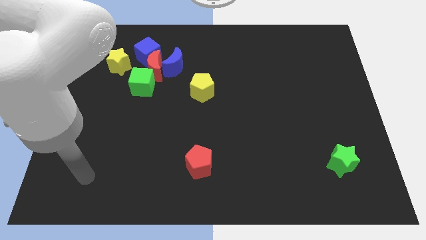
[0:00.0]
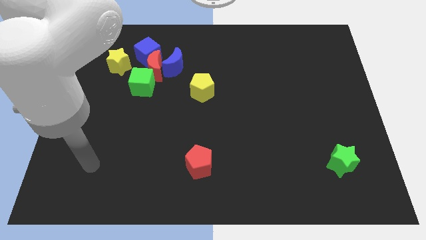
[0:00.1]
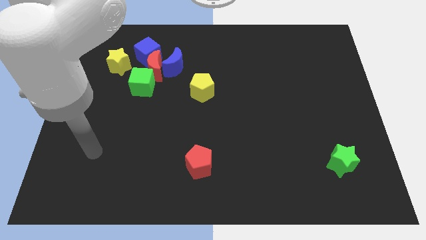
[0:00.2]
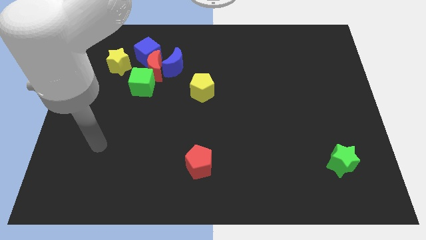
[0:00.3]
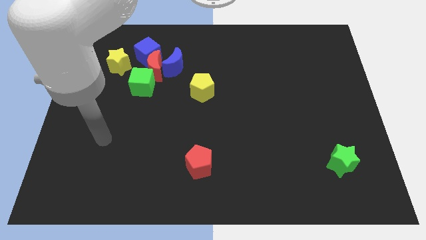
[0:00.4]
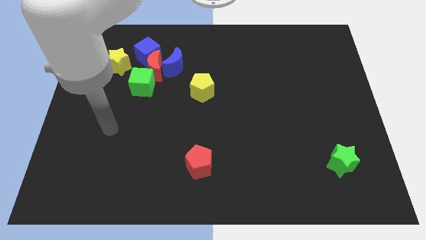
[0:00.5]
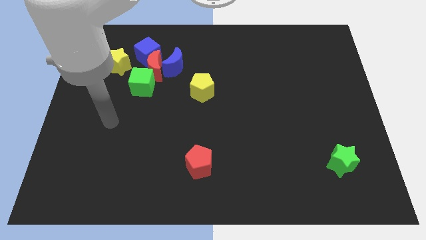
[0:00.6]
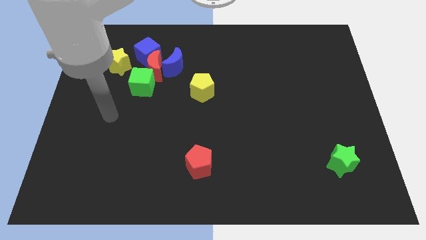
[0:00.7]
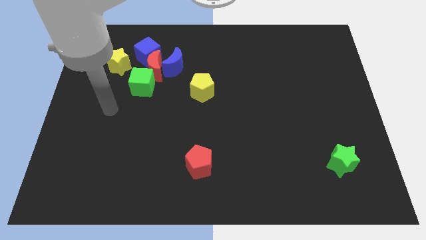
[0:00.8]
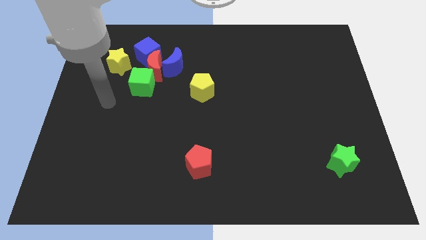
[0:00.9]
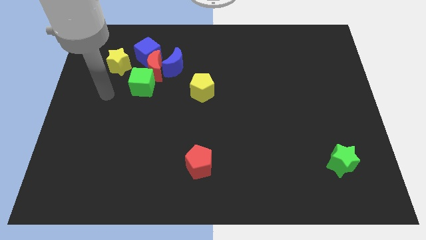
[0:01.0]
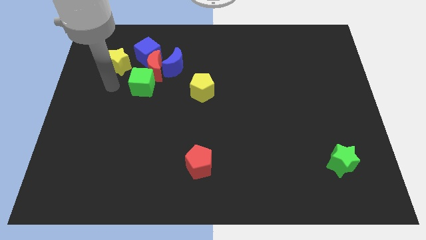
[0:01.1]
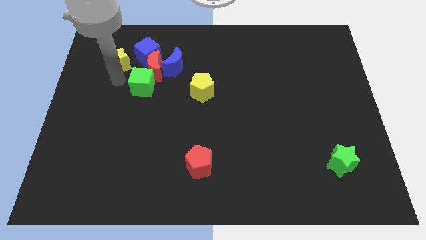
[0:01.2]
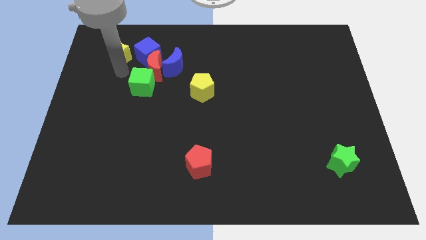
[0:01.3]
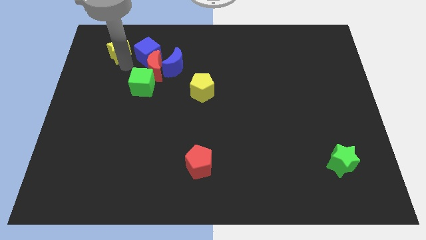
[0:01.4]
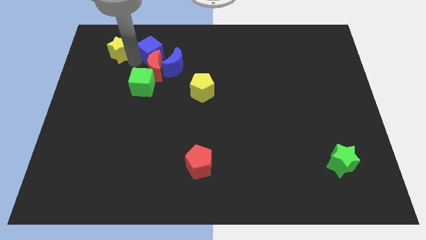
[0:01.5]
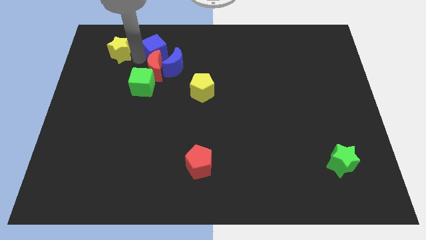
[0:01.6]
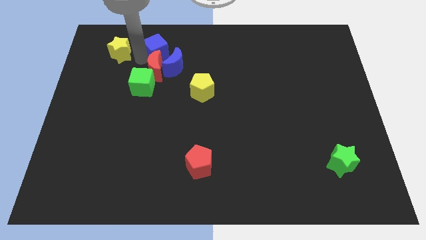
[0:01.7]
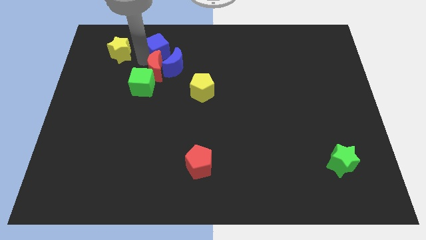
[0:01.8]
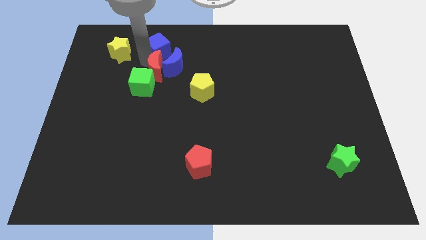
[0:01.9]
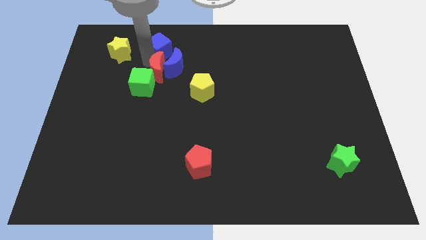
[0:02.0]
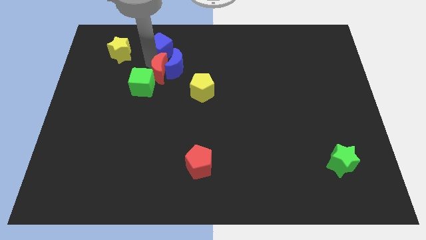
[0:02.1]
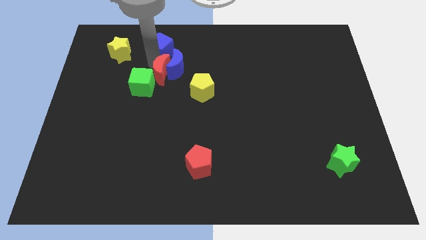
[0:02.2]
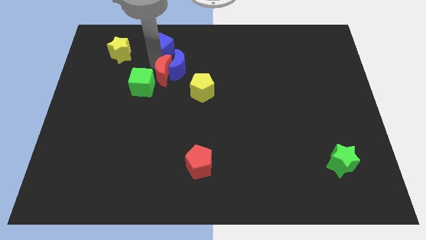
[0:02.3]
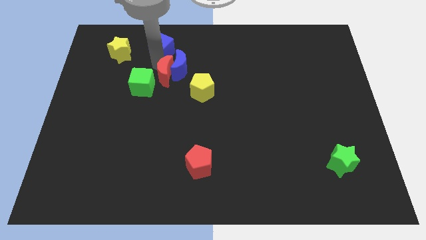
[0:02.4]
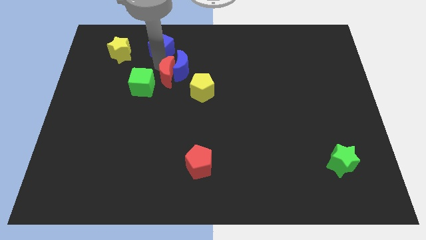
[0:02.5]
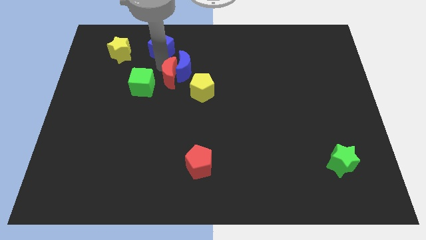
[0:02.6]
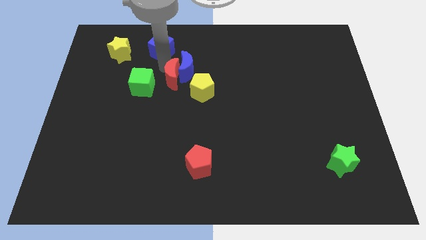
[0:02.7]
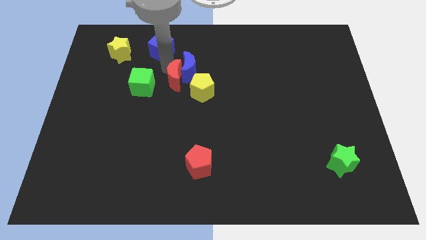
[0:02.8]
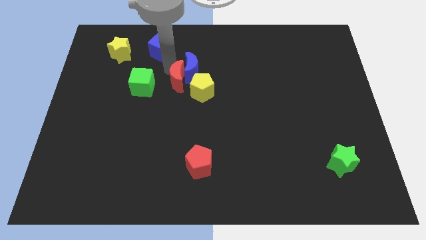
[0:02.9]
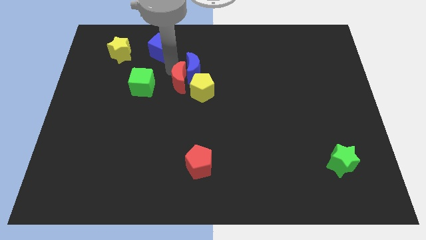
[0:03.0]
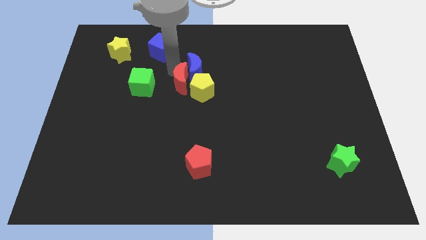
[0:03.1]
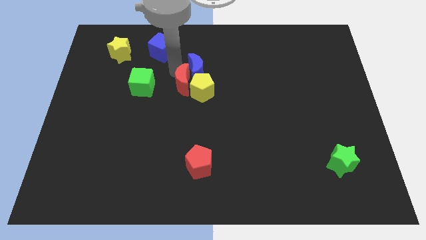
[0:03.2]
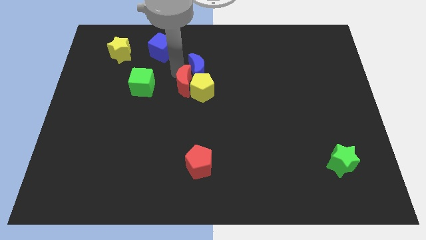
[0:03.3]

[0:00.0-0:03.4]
move the red moon away from the clump

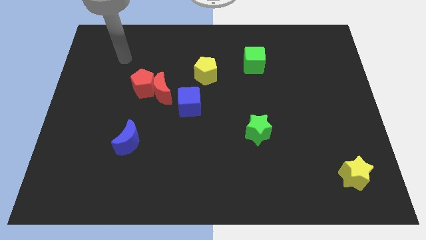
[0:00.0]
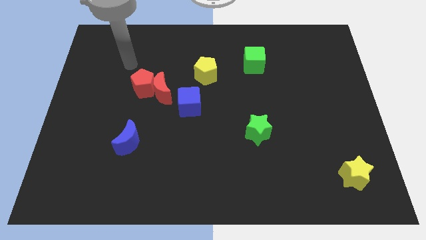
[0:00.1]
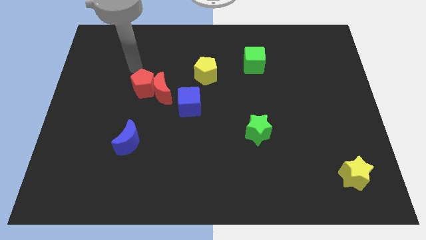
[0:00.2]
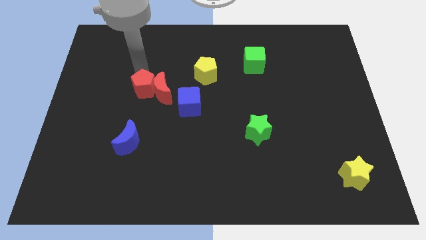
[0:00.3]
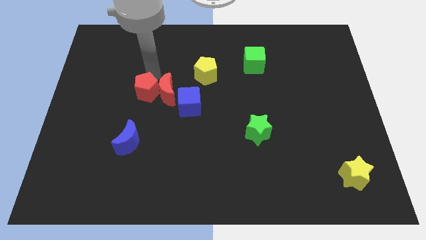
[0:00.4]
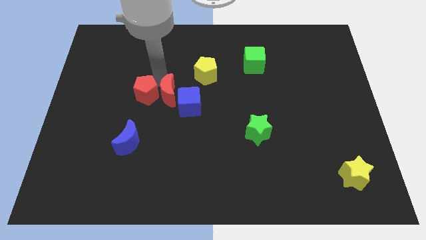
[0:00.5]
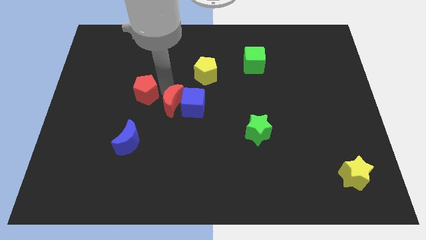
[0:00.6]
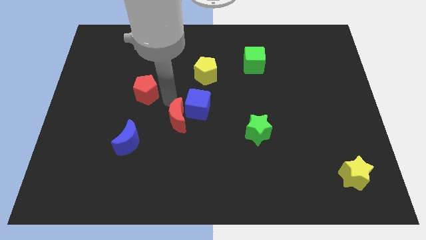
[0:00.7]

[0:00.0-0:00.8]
move the red pentagon away from the red moon

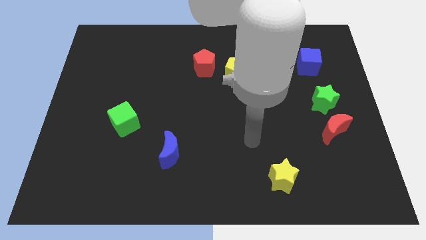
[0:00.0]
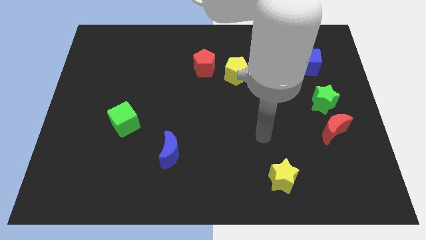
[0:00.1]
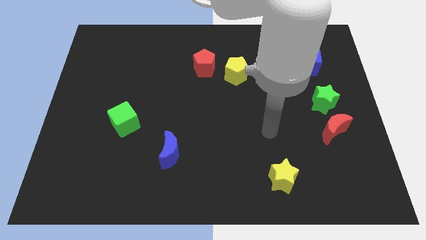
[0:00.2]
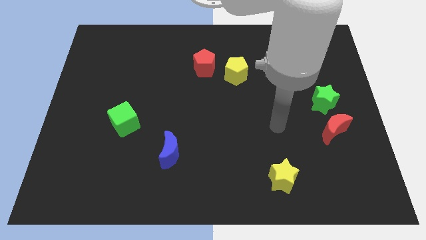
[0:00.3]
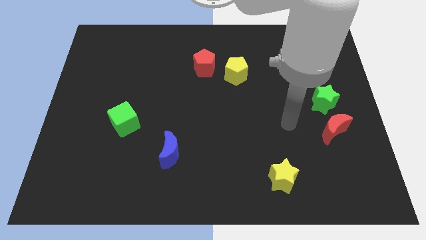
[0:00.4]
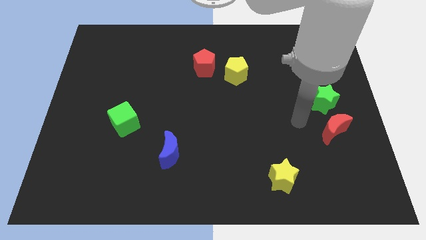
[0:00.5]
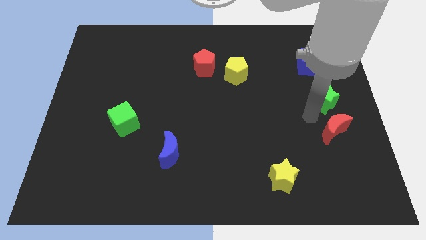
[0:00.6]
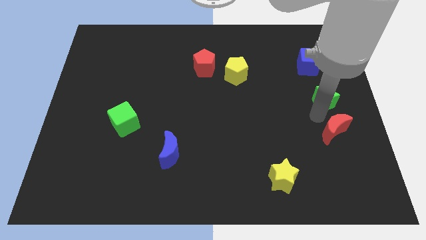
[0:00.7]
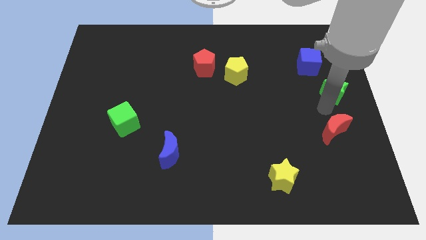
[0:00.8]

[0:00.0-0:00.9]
move the red moon away from the green star

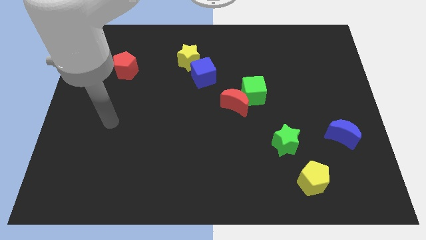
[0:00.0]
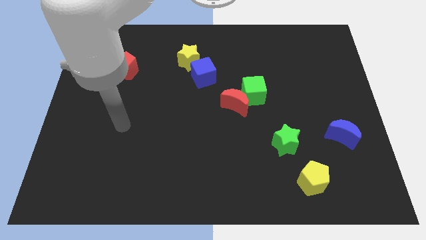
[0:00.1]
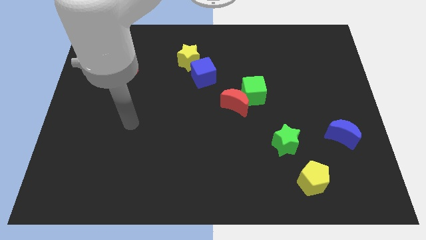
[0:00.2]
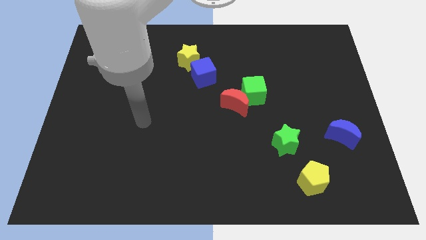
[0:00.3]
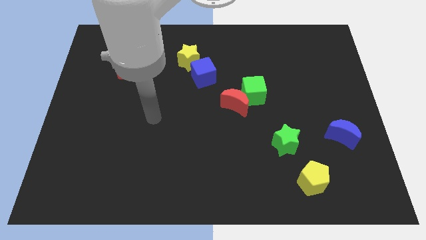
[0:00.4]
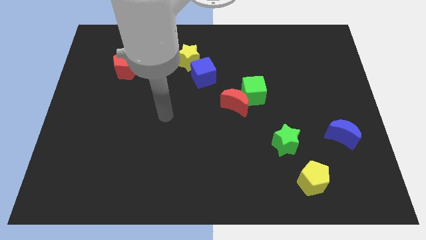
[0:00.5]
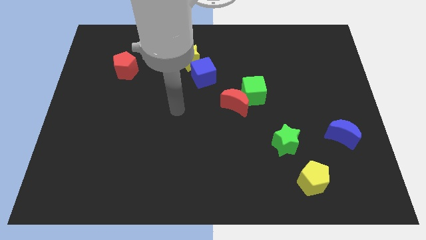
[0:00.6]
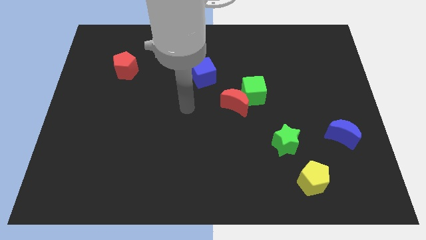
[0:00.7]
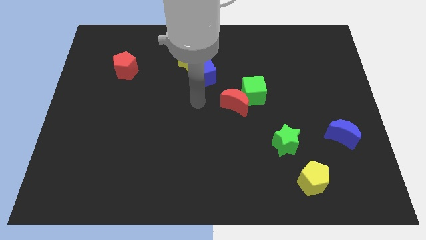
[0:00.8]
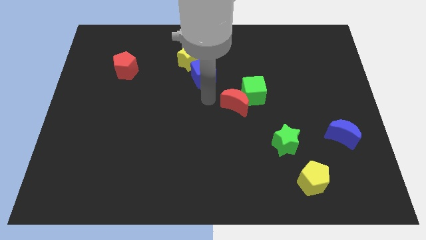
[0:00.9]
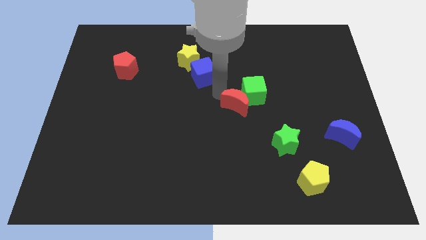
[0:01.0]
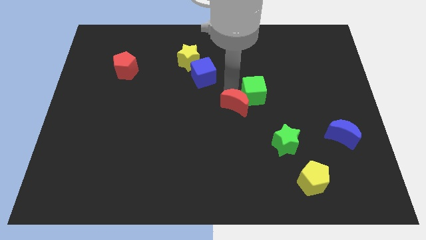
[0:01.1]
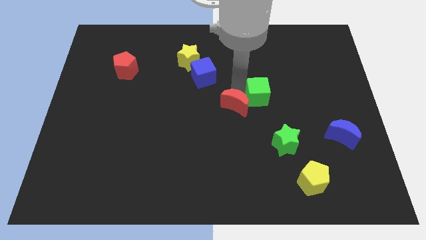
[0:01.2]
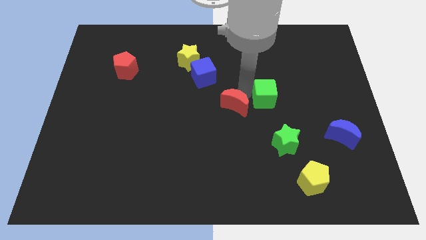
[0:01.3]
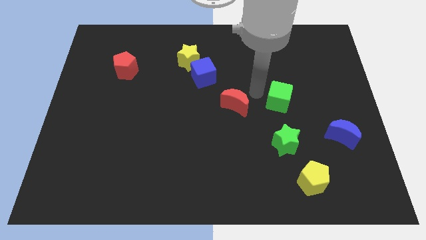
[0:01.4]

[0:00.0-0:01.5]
move the red moon away from the green cube

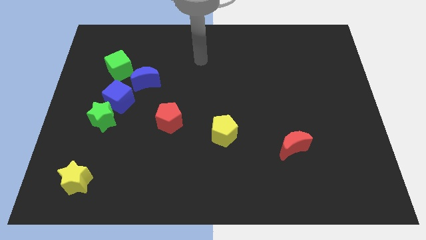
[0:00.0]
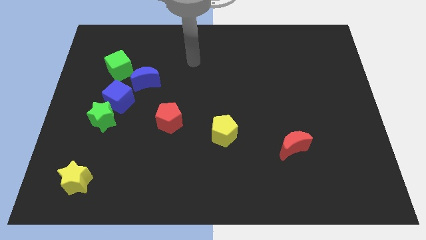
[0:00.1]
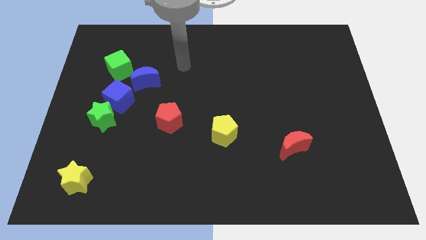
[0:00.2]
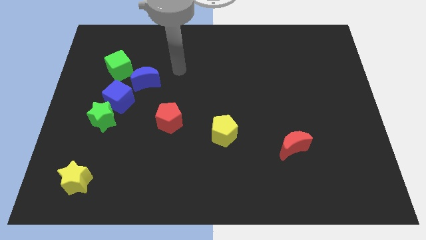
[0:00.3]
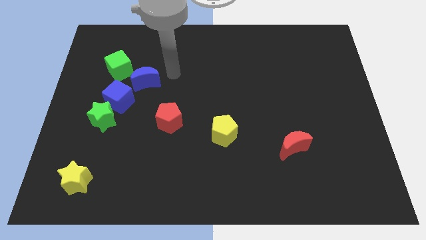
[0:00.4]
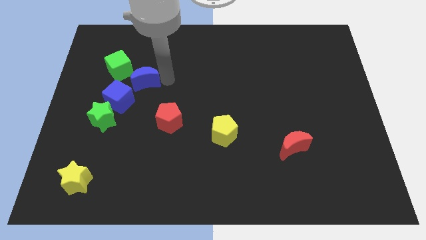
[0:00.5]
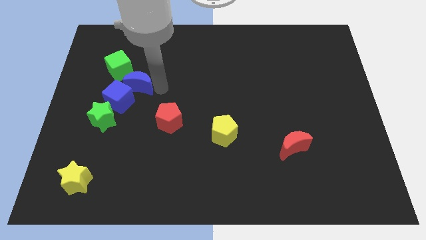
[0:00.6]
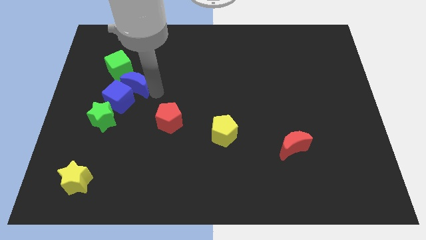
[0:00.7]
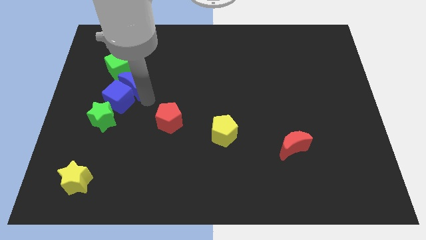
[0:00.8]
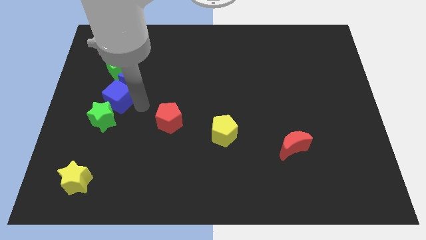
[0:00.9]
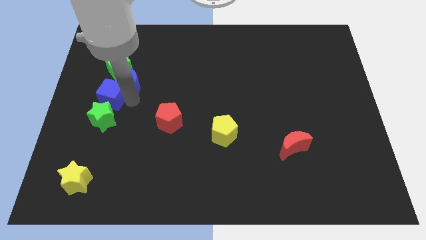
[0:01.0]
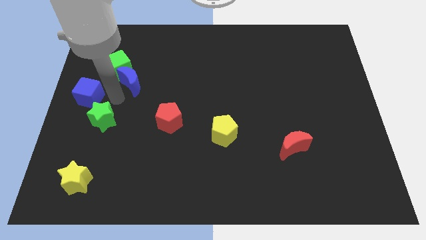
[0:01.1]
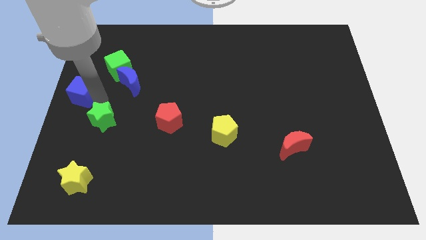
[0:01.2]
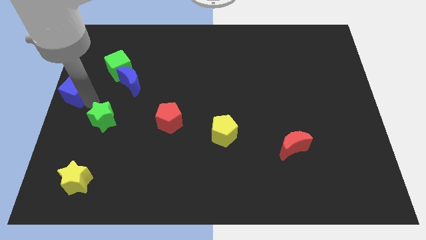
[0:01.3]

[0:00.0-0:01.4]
move the green star away from the blue cube

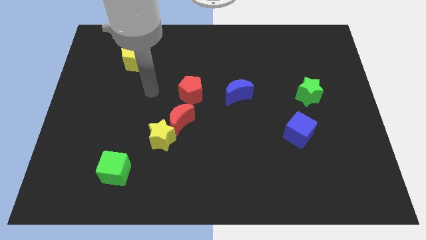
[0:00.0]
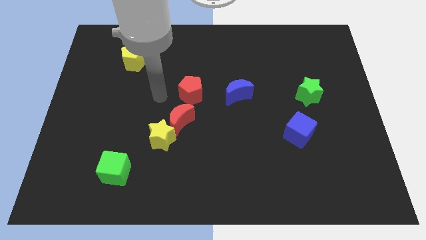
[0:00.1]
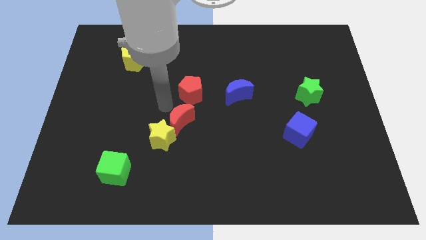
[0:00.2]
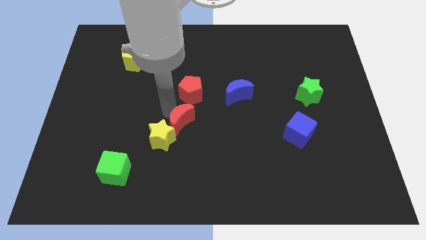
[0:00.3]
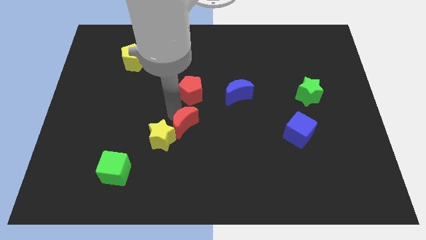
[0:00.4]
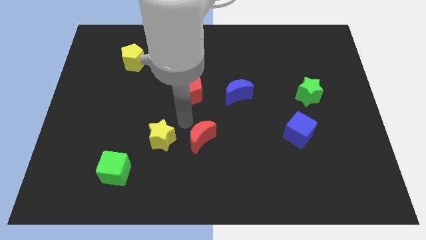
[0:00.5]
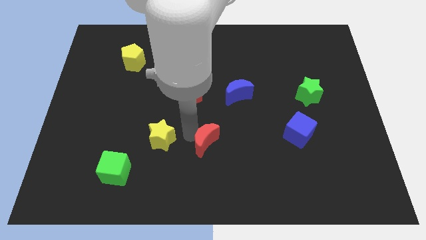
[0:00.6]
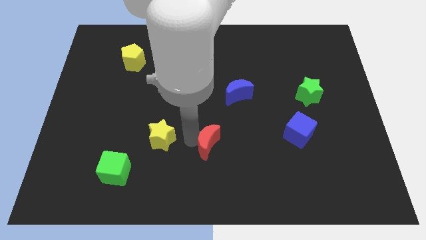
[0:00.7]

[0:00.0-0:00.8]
separate the yellow star from the red moon

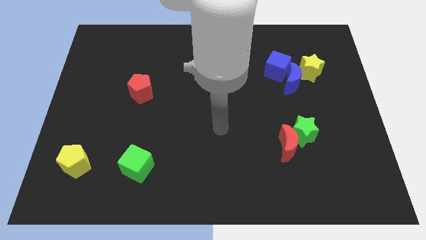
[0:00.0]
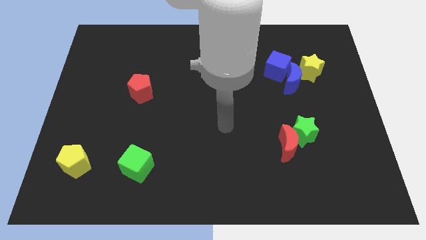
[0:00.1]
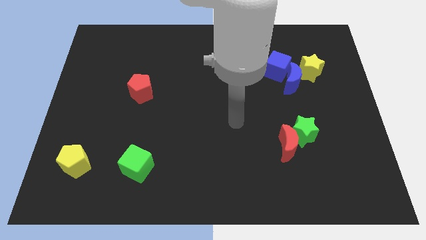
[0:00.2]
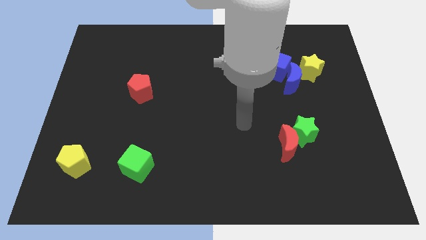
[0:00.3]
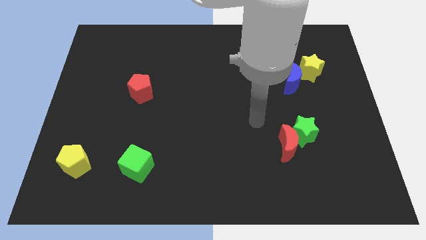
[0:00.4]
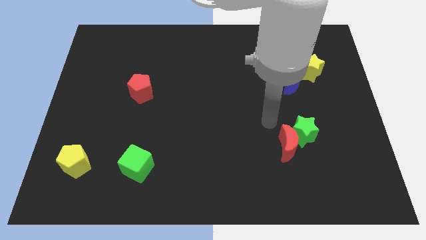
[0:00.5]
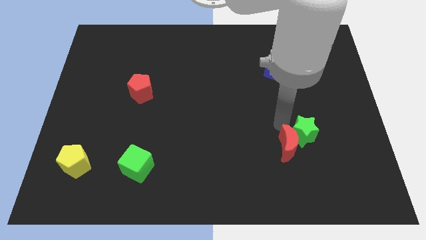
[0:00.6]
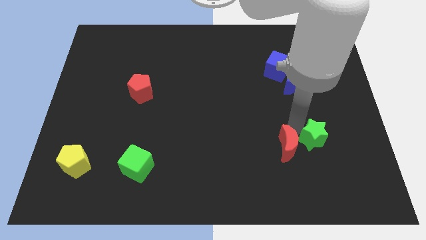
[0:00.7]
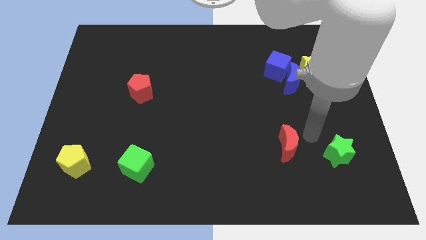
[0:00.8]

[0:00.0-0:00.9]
pull the red moon apart from the green star
